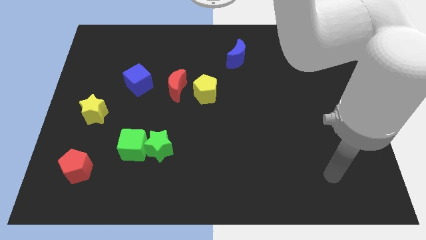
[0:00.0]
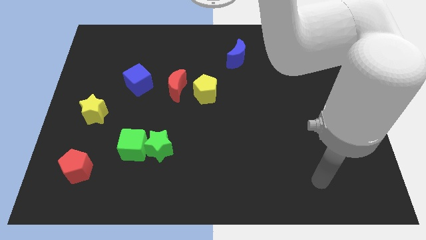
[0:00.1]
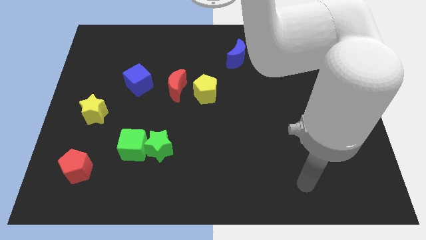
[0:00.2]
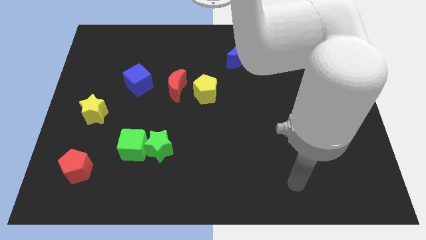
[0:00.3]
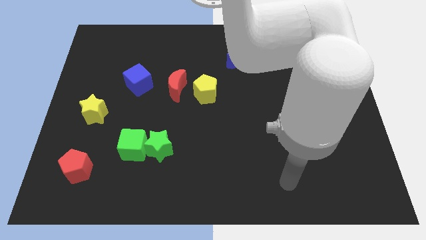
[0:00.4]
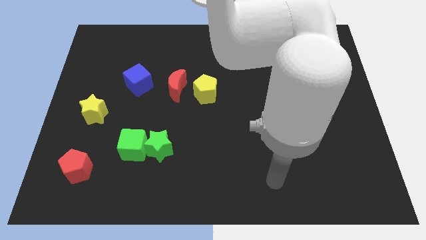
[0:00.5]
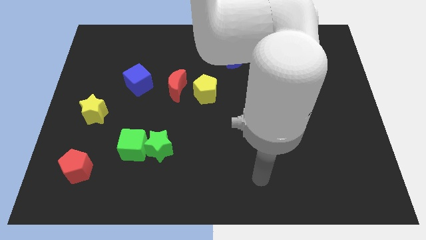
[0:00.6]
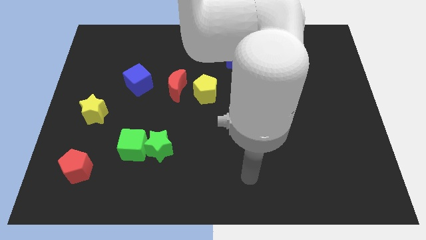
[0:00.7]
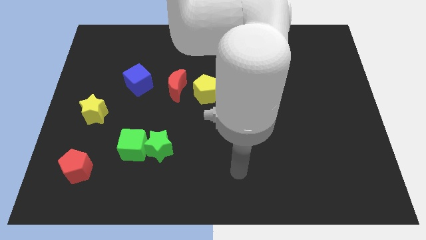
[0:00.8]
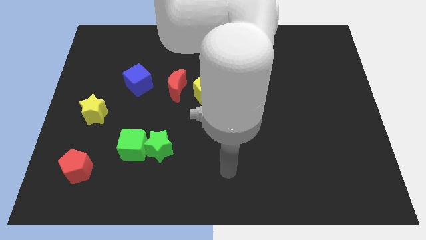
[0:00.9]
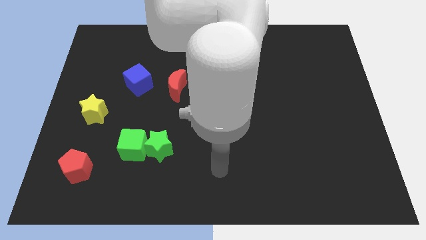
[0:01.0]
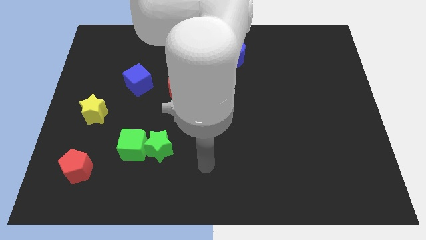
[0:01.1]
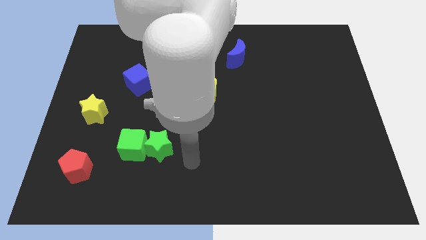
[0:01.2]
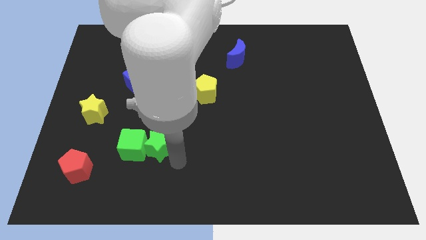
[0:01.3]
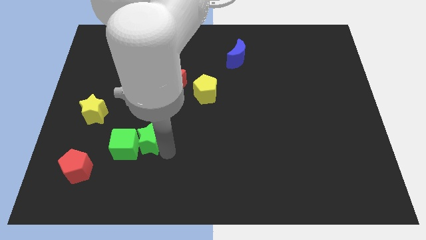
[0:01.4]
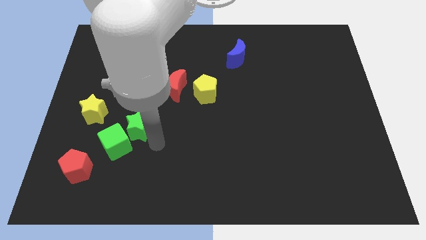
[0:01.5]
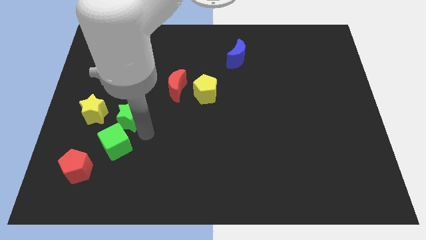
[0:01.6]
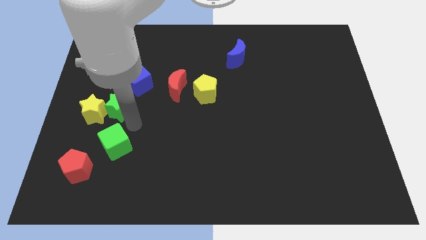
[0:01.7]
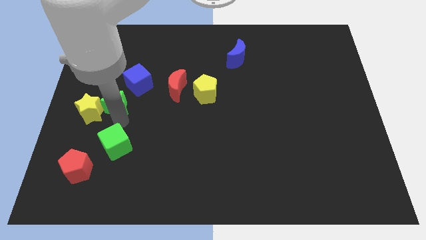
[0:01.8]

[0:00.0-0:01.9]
move the green cube away from the green star

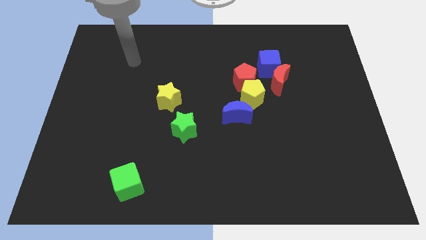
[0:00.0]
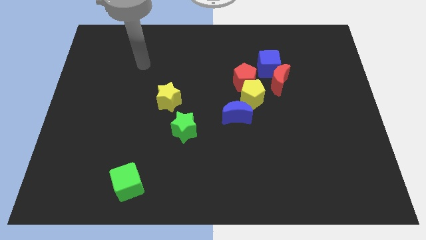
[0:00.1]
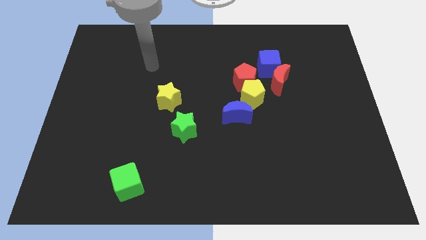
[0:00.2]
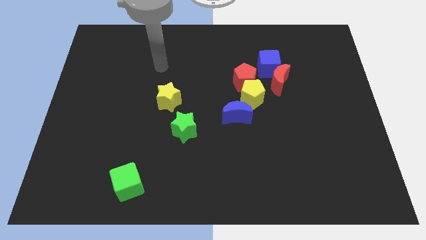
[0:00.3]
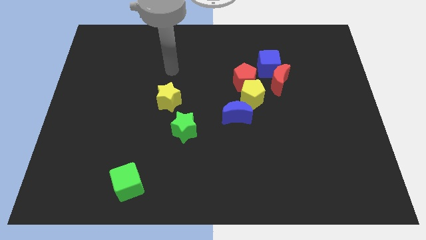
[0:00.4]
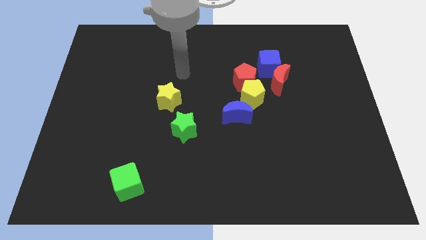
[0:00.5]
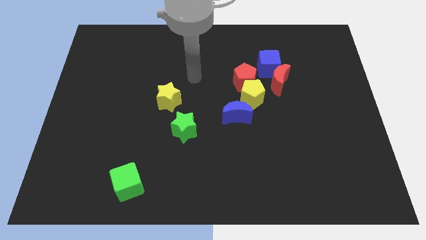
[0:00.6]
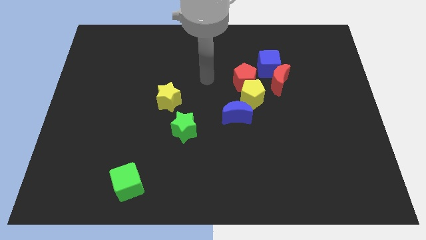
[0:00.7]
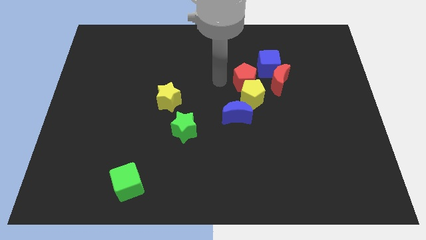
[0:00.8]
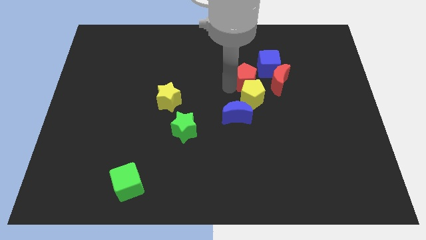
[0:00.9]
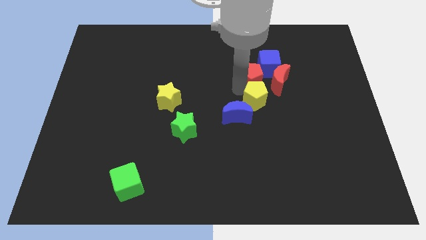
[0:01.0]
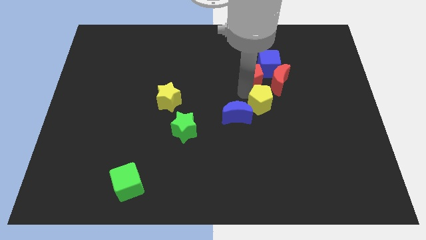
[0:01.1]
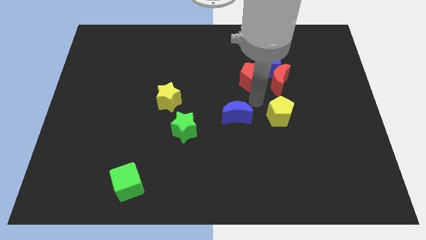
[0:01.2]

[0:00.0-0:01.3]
separate the blue moon from the yellow pentagon

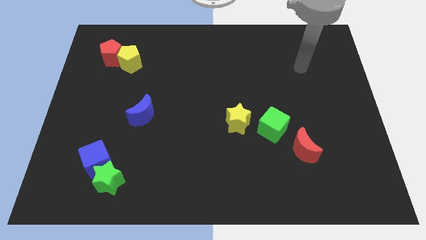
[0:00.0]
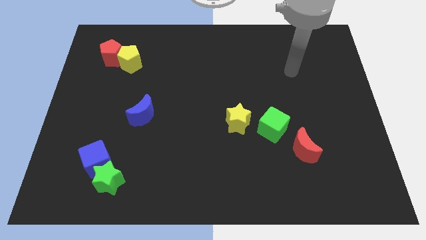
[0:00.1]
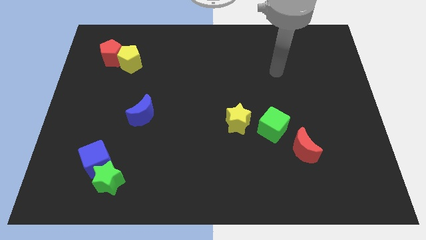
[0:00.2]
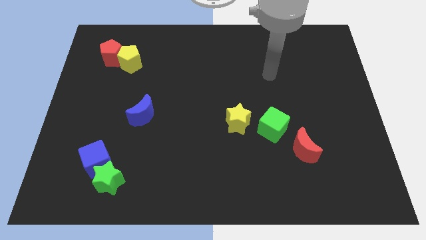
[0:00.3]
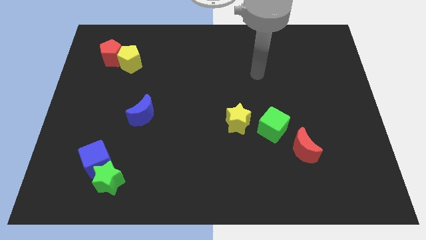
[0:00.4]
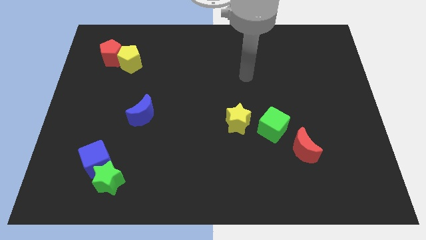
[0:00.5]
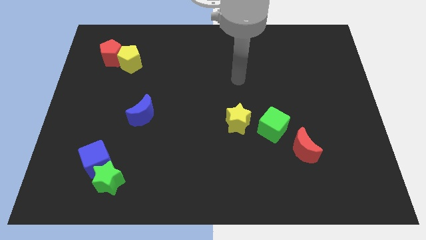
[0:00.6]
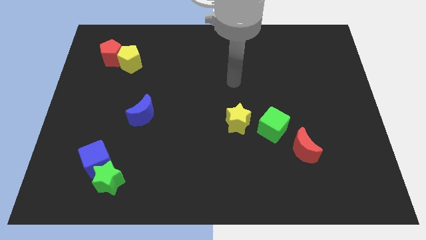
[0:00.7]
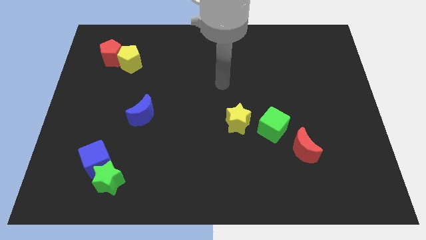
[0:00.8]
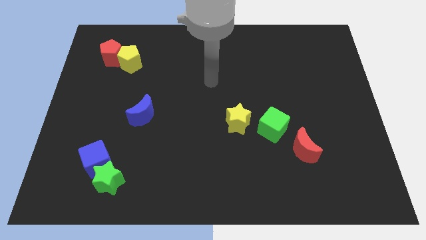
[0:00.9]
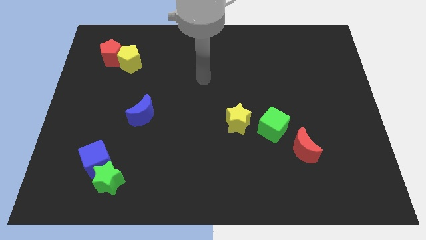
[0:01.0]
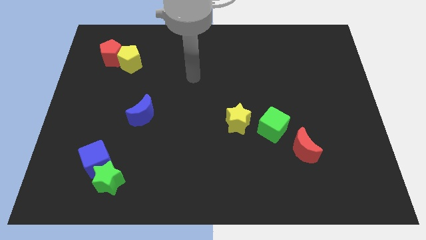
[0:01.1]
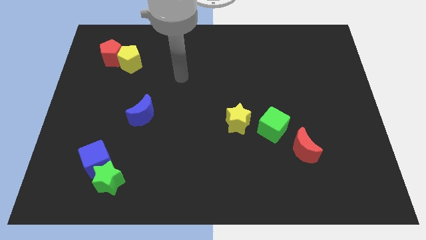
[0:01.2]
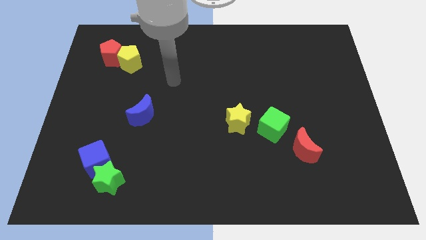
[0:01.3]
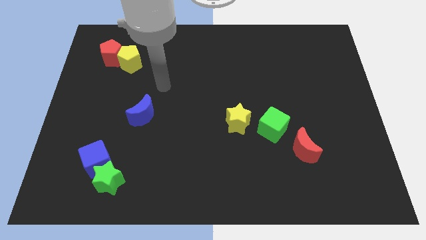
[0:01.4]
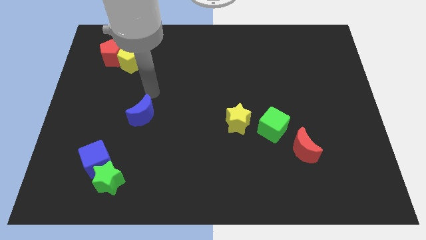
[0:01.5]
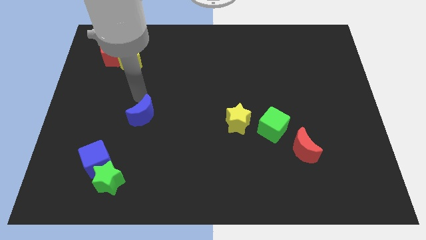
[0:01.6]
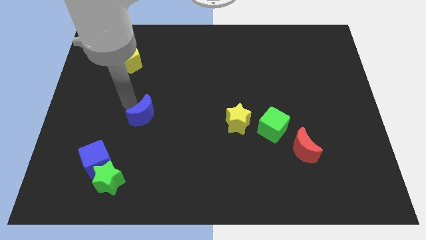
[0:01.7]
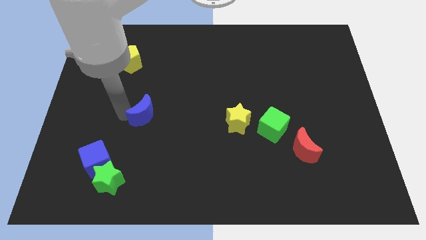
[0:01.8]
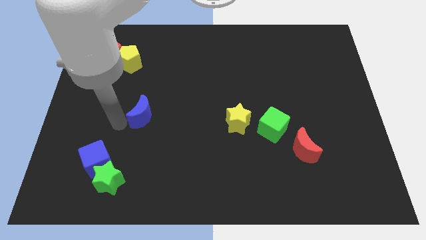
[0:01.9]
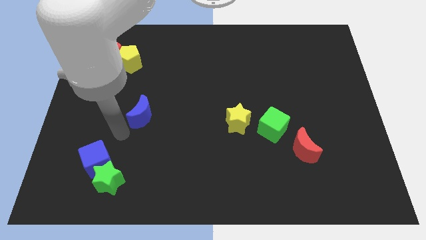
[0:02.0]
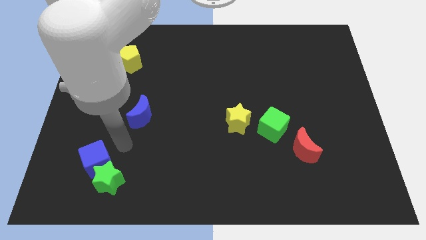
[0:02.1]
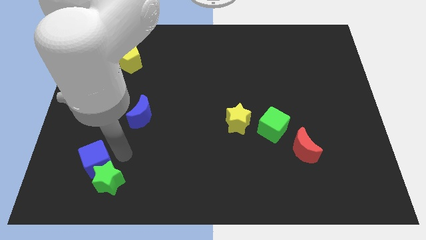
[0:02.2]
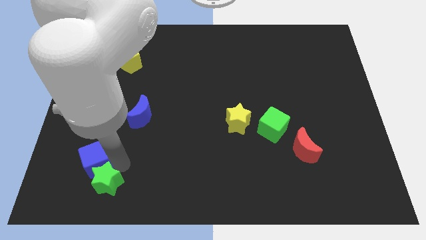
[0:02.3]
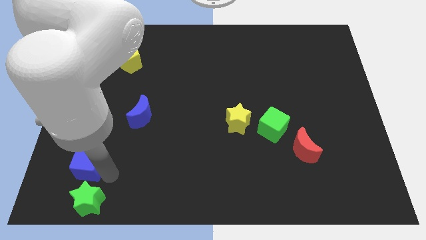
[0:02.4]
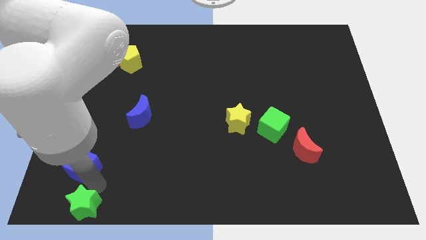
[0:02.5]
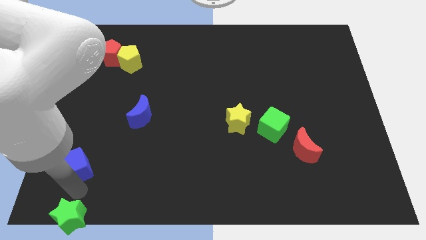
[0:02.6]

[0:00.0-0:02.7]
separate the blue cube from the green star

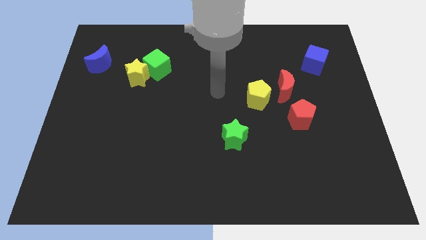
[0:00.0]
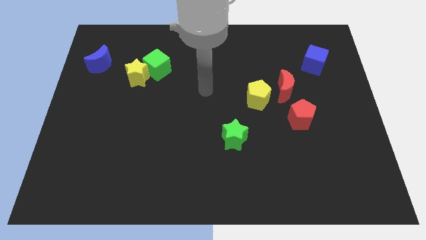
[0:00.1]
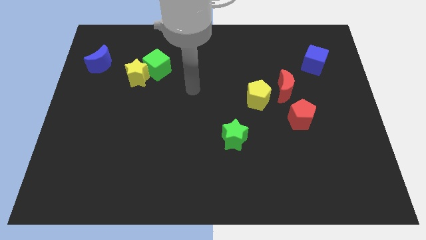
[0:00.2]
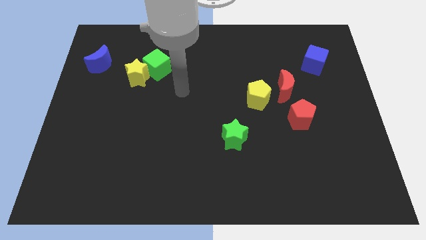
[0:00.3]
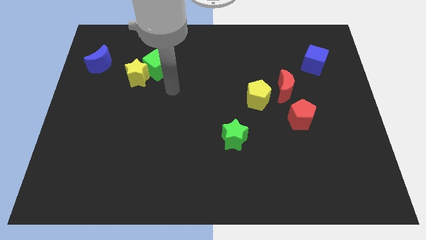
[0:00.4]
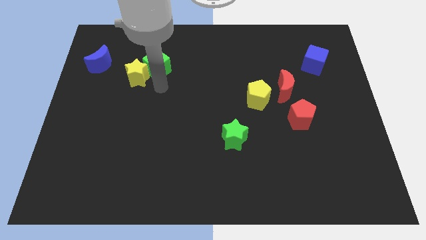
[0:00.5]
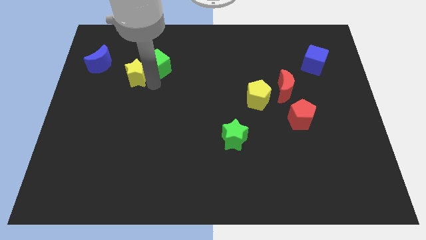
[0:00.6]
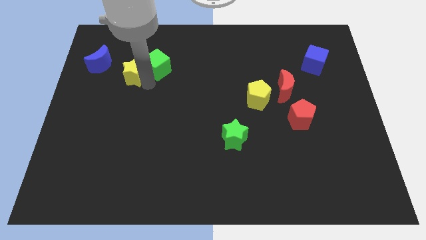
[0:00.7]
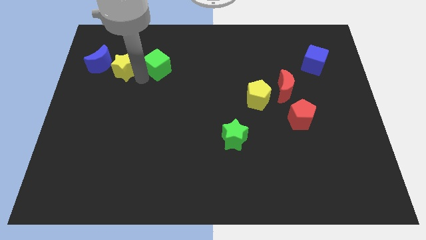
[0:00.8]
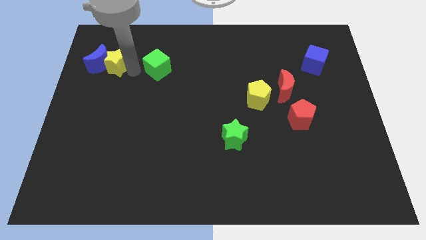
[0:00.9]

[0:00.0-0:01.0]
move the green cube away from the yellow star

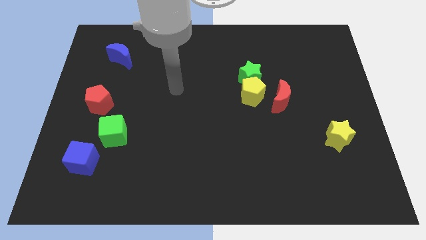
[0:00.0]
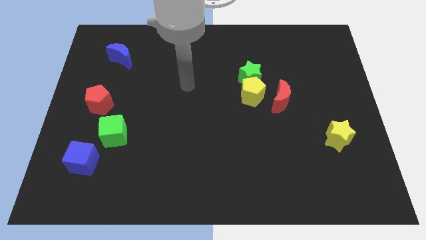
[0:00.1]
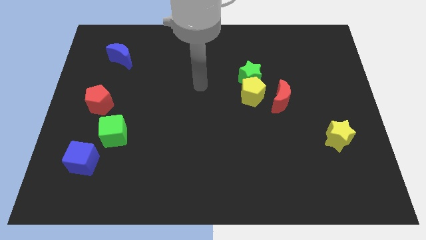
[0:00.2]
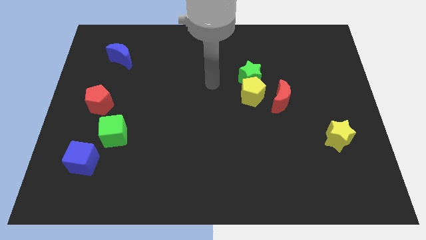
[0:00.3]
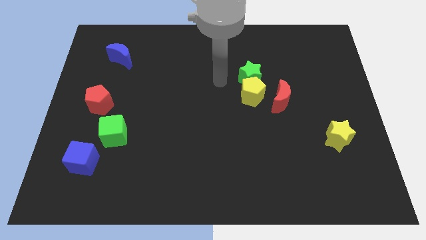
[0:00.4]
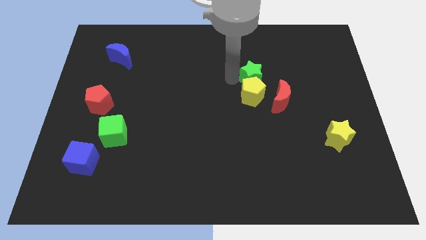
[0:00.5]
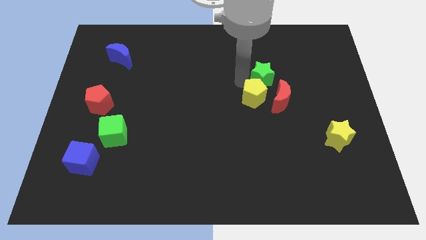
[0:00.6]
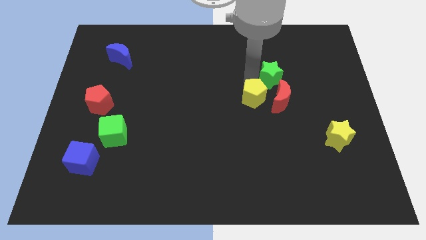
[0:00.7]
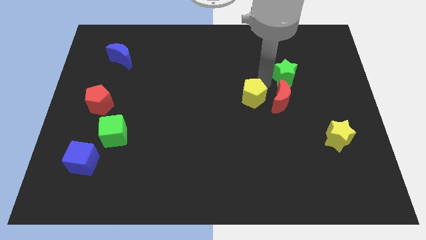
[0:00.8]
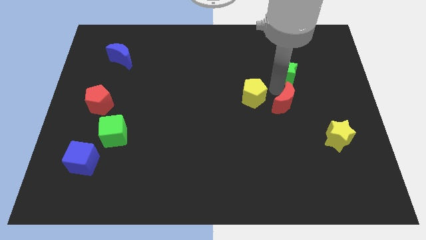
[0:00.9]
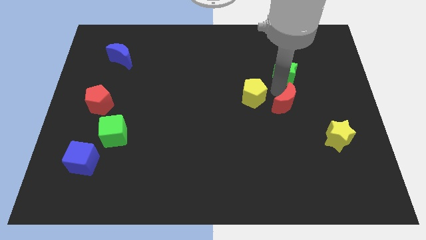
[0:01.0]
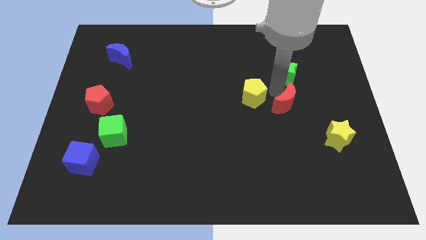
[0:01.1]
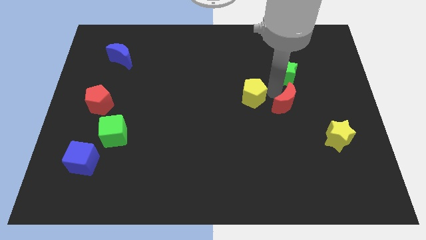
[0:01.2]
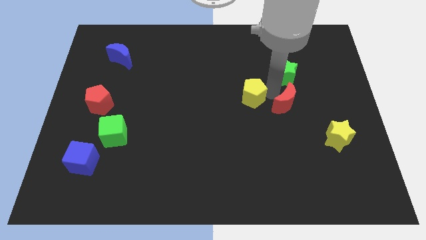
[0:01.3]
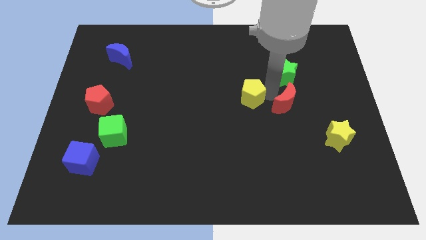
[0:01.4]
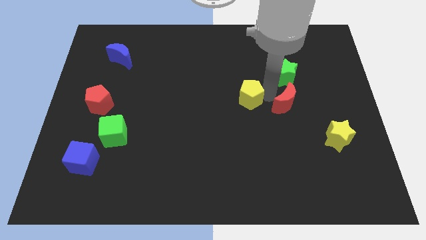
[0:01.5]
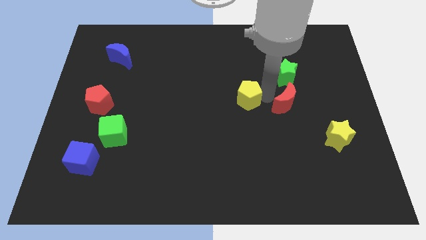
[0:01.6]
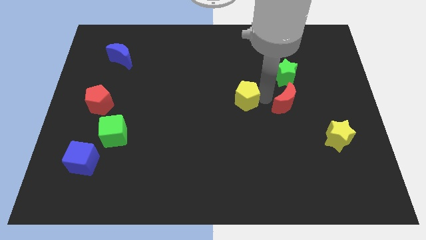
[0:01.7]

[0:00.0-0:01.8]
separate the yellow pentagon from the green star and red moon

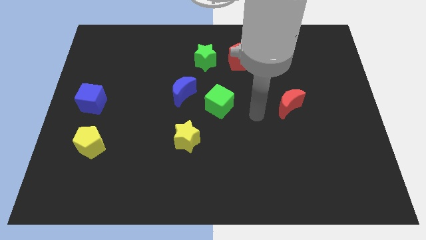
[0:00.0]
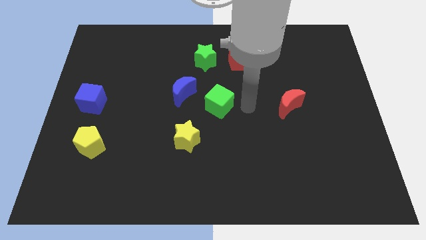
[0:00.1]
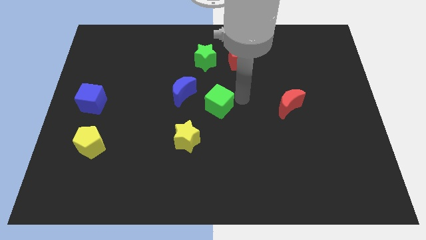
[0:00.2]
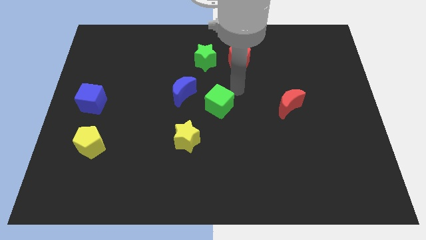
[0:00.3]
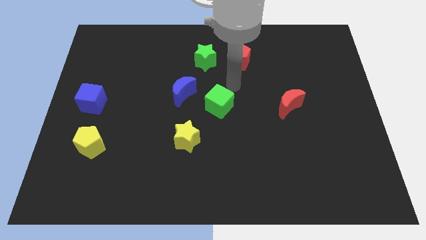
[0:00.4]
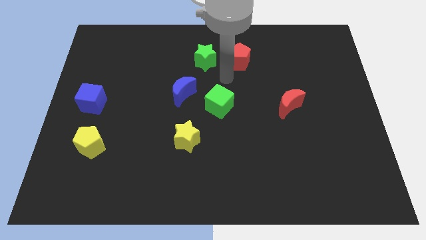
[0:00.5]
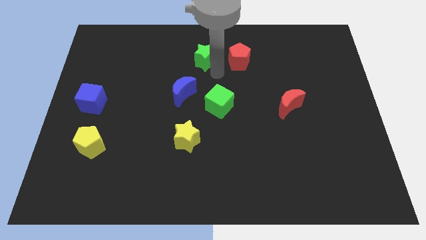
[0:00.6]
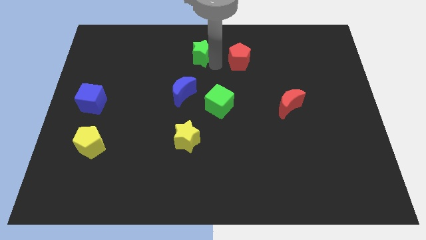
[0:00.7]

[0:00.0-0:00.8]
separate the red pentagon from the green star

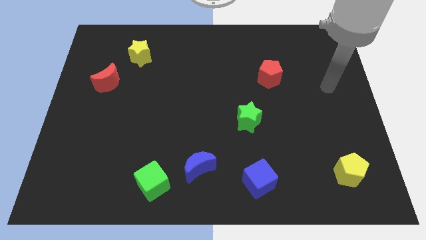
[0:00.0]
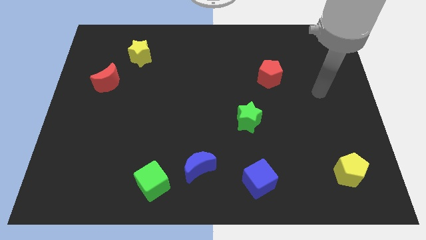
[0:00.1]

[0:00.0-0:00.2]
separate the blue moon from the green cube
